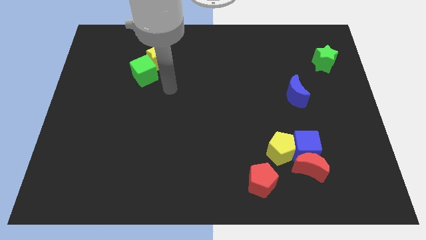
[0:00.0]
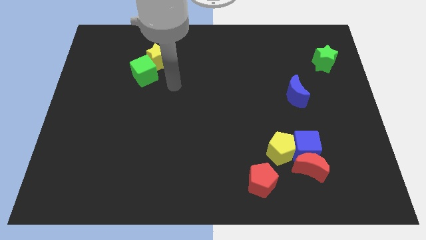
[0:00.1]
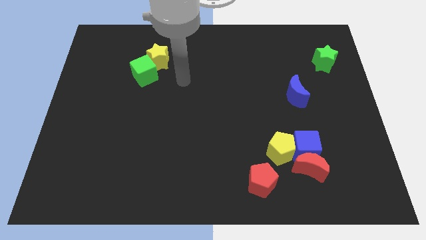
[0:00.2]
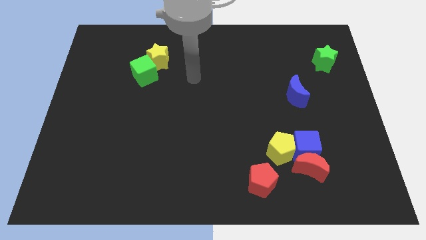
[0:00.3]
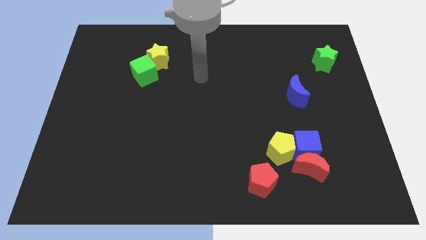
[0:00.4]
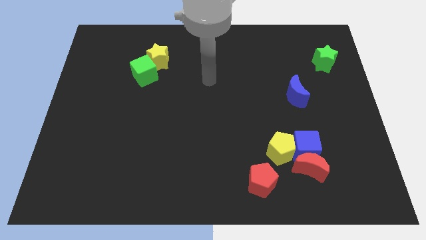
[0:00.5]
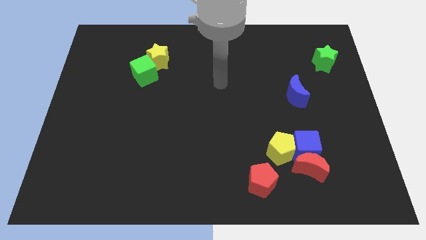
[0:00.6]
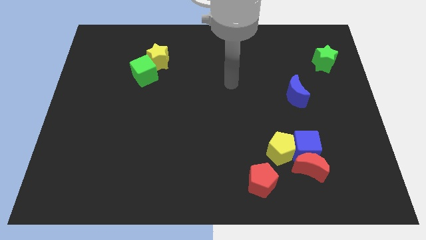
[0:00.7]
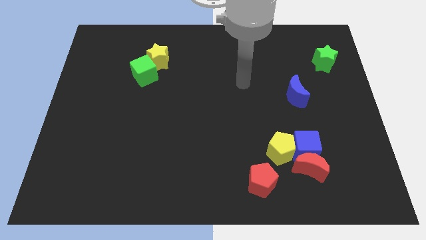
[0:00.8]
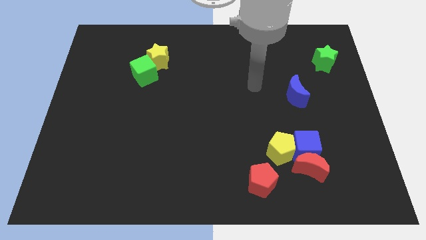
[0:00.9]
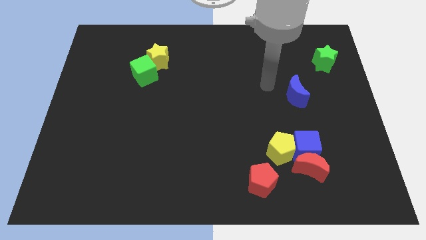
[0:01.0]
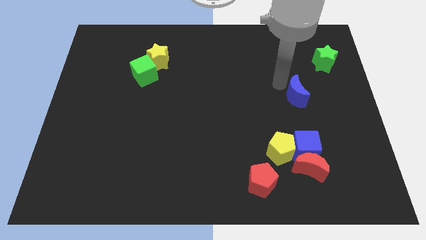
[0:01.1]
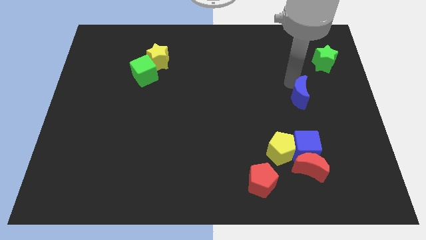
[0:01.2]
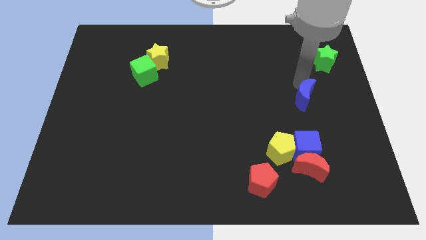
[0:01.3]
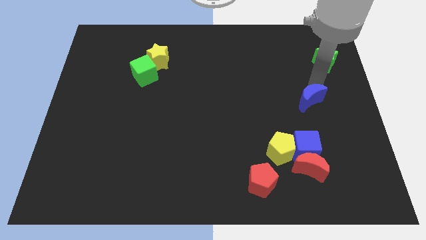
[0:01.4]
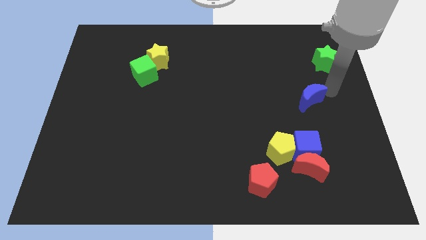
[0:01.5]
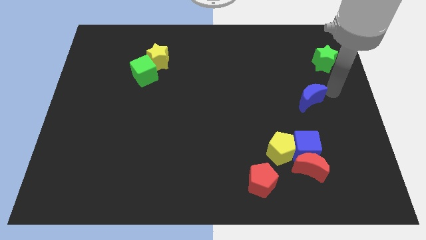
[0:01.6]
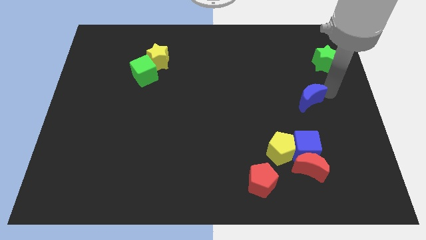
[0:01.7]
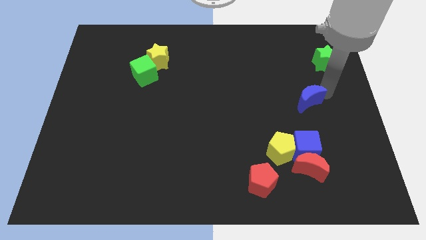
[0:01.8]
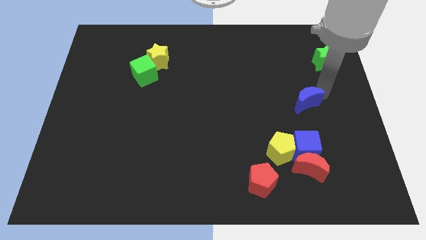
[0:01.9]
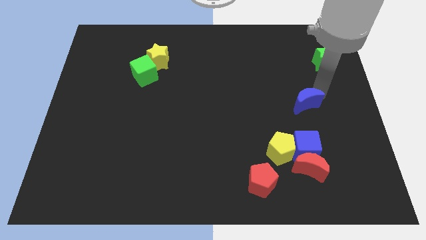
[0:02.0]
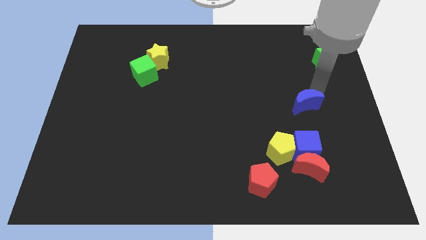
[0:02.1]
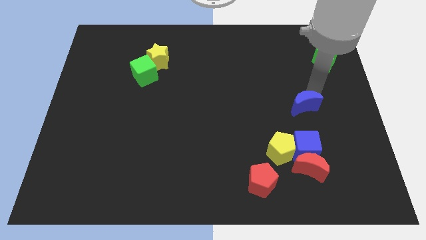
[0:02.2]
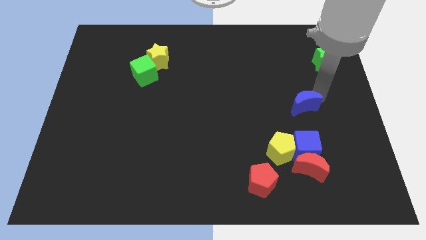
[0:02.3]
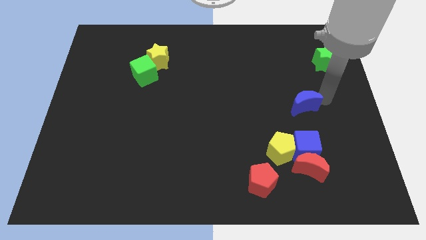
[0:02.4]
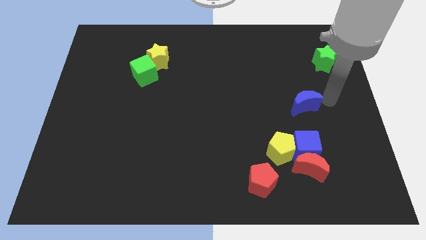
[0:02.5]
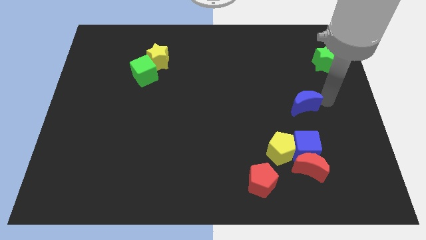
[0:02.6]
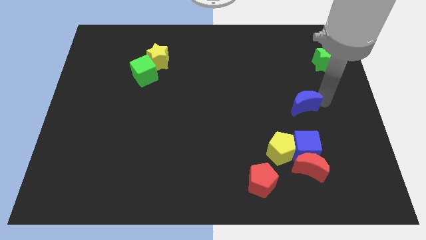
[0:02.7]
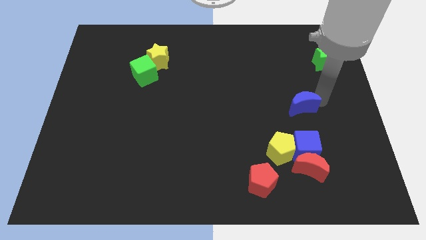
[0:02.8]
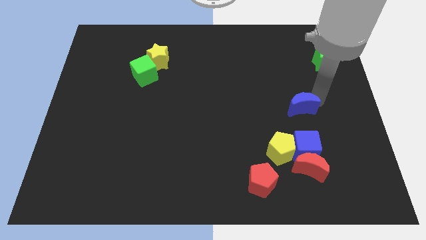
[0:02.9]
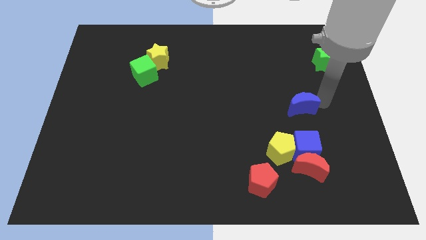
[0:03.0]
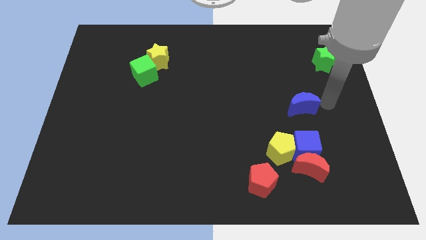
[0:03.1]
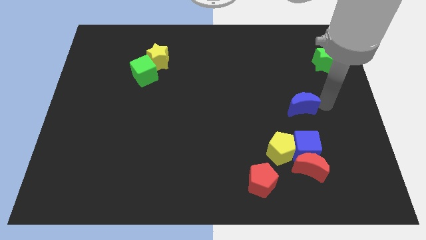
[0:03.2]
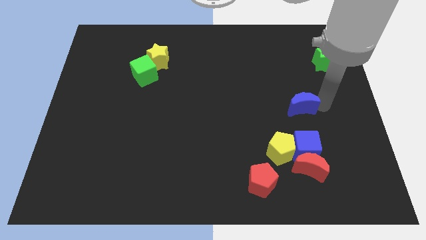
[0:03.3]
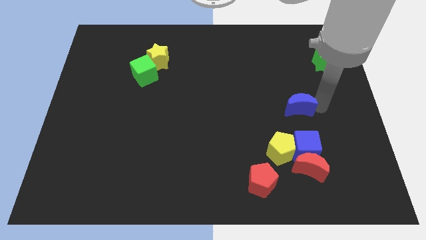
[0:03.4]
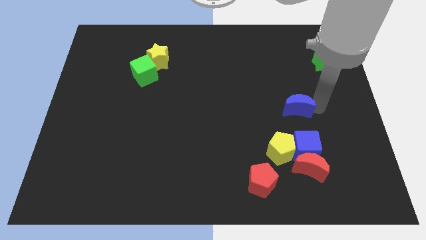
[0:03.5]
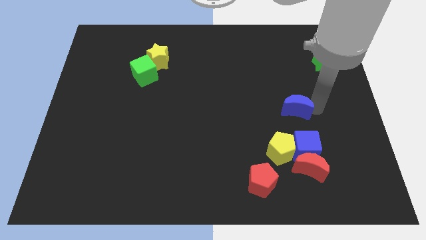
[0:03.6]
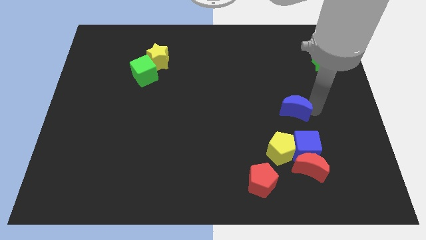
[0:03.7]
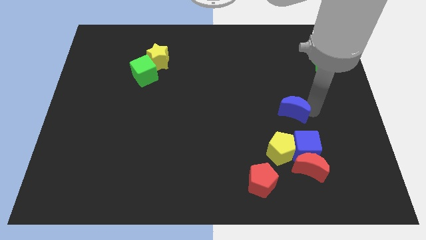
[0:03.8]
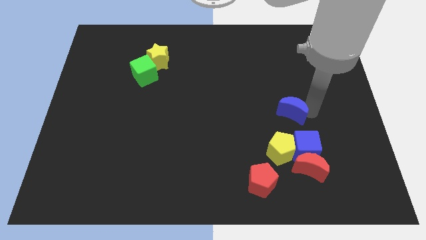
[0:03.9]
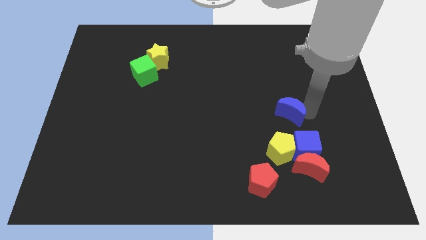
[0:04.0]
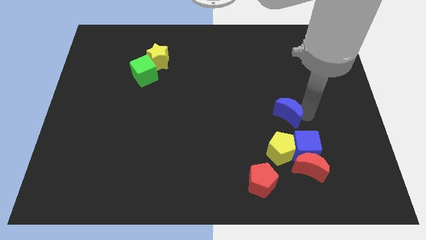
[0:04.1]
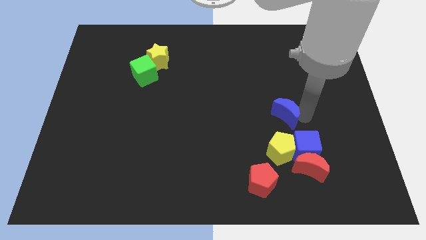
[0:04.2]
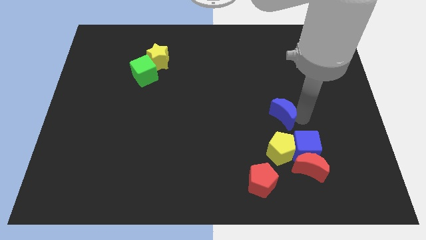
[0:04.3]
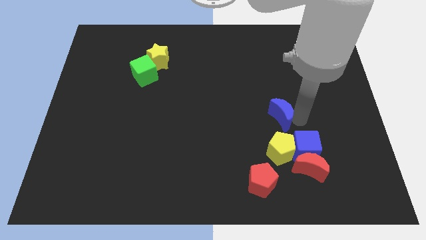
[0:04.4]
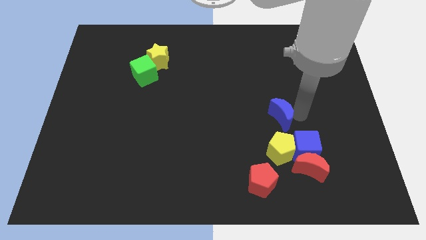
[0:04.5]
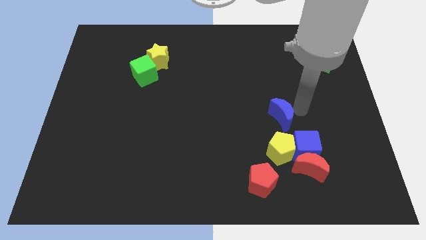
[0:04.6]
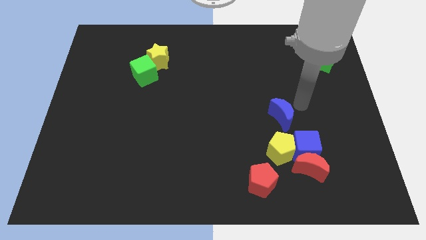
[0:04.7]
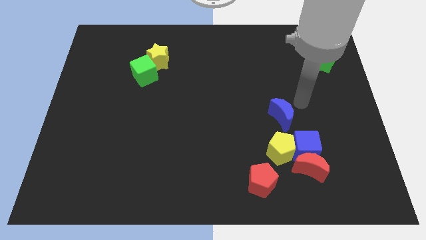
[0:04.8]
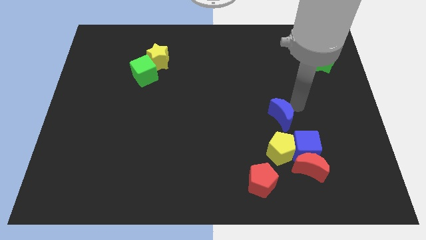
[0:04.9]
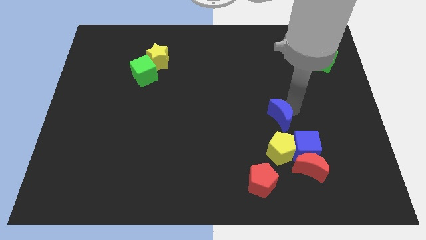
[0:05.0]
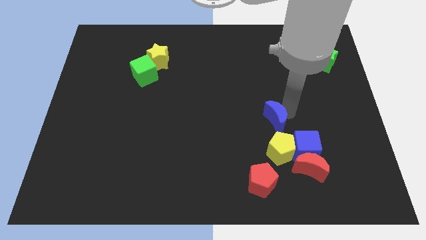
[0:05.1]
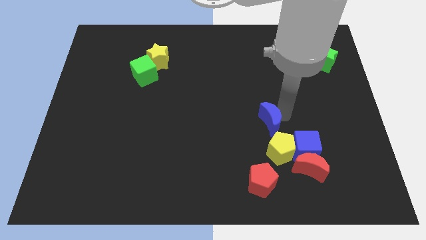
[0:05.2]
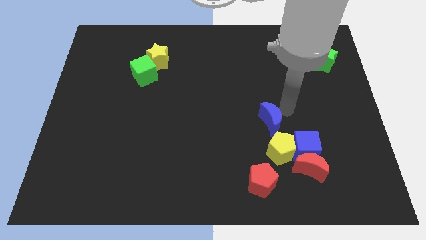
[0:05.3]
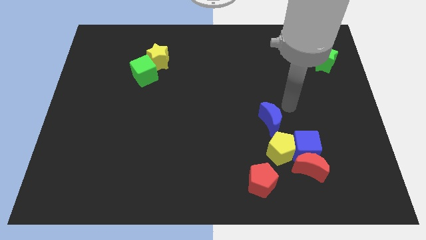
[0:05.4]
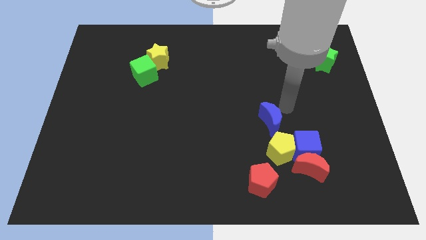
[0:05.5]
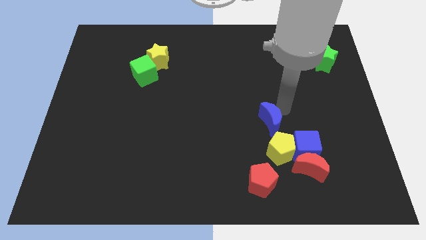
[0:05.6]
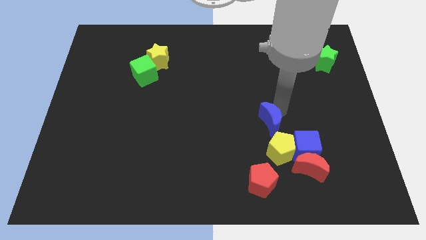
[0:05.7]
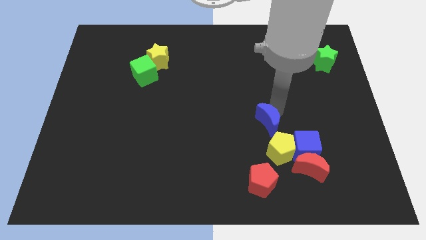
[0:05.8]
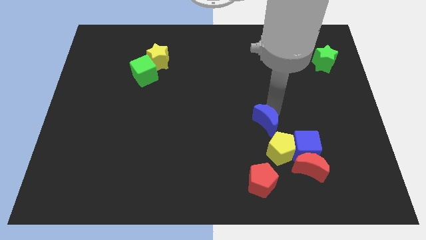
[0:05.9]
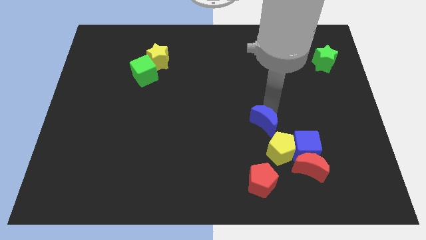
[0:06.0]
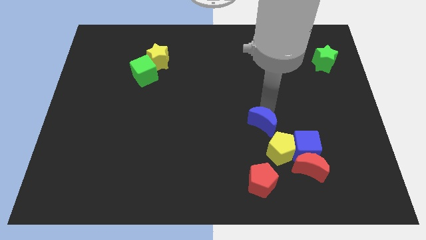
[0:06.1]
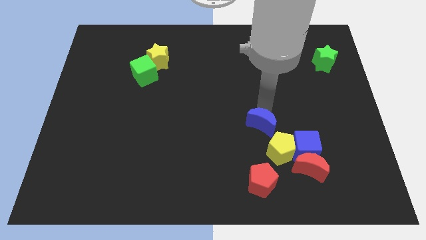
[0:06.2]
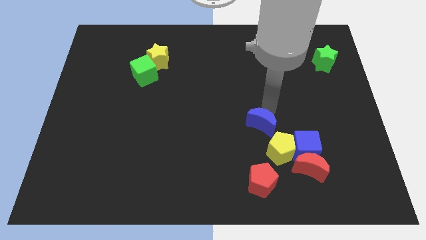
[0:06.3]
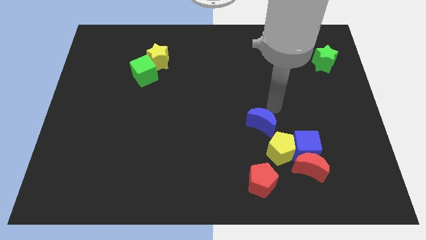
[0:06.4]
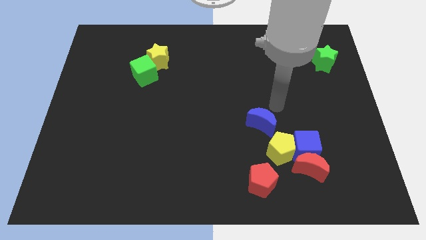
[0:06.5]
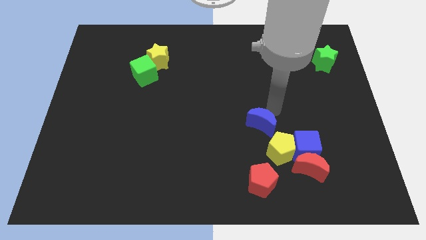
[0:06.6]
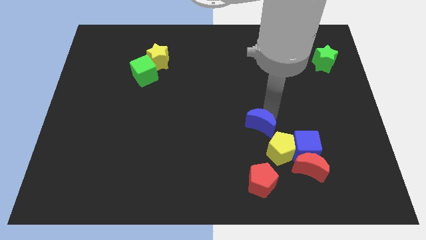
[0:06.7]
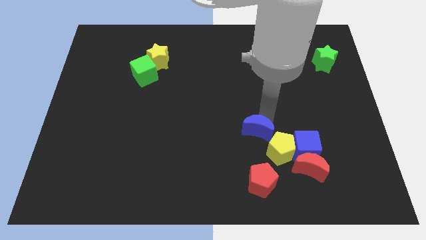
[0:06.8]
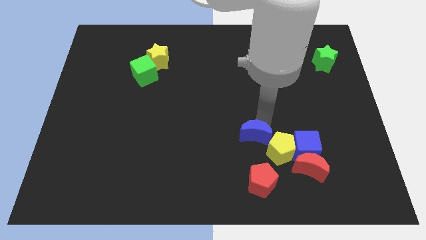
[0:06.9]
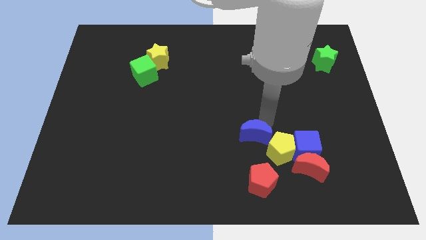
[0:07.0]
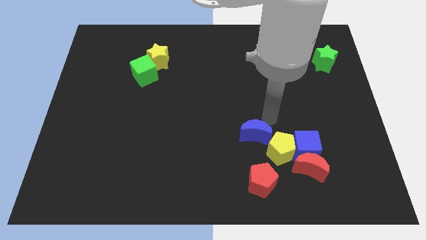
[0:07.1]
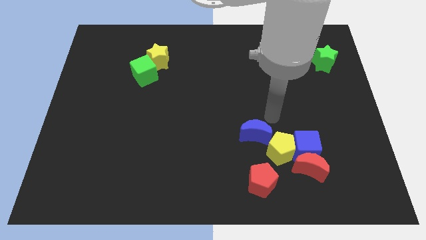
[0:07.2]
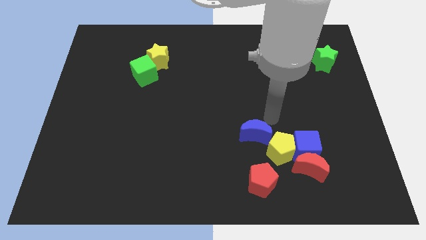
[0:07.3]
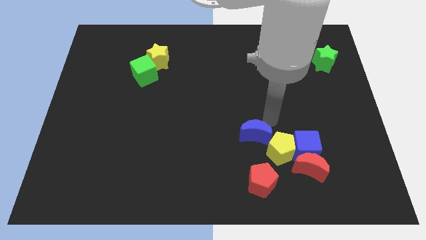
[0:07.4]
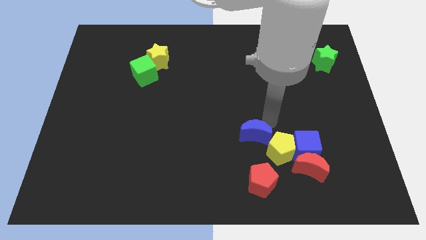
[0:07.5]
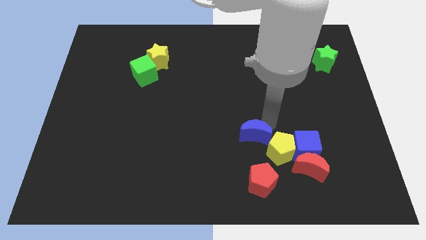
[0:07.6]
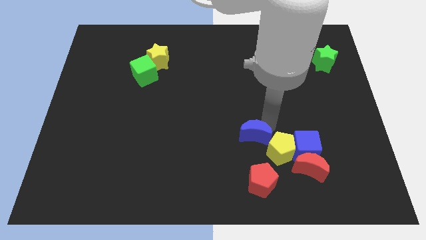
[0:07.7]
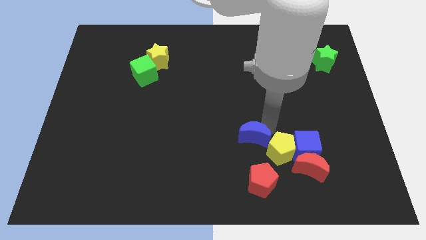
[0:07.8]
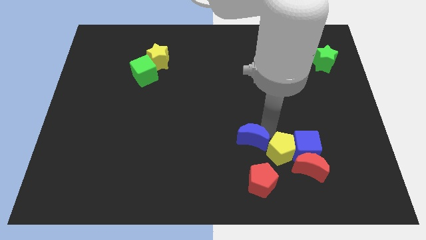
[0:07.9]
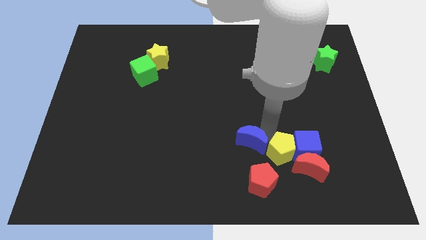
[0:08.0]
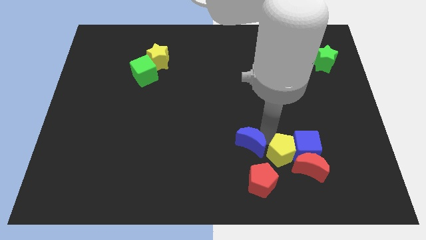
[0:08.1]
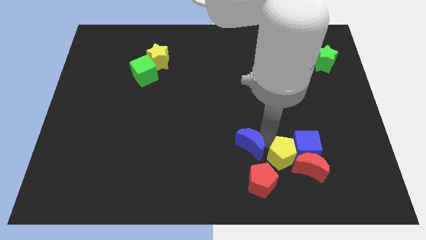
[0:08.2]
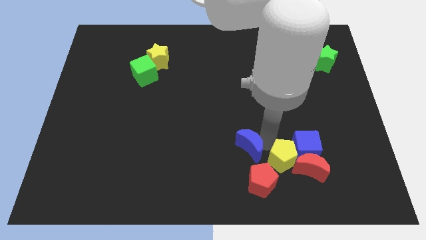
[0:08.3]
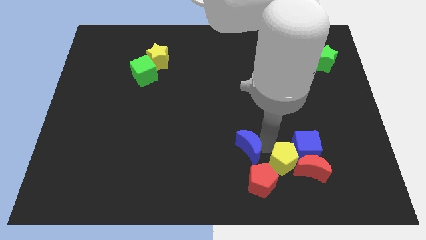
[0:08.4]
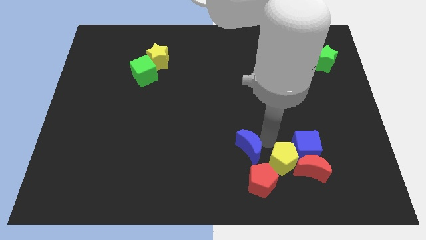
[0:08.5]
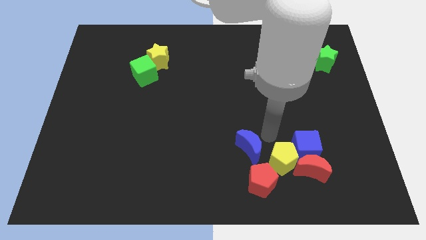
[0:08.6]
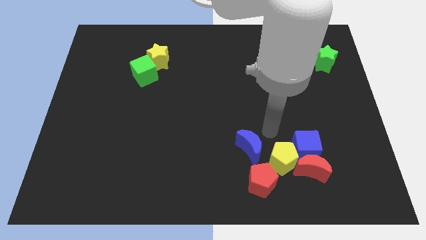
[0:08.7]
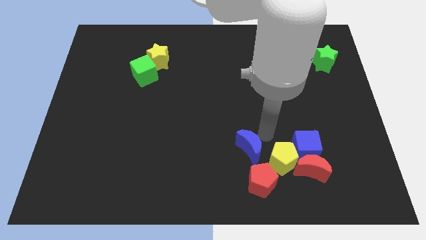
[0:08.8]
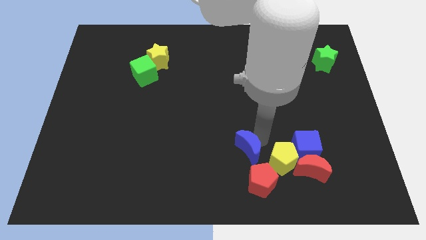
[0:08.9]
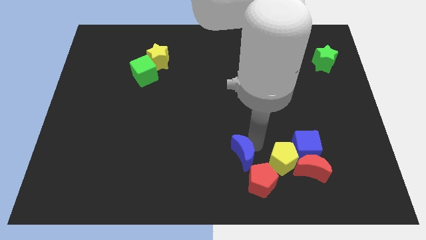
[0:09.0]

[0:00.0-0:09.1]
move the blue moon down and left diagonally
